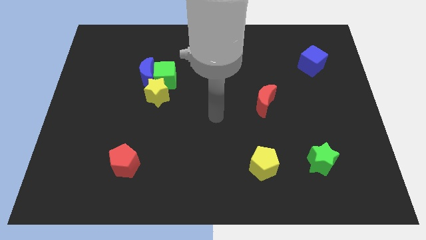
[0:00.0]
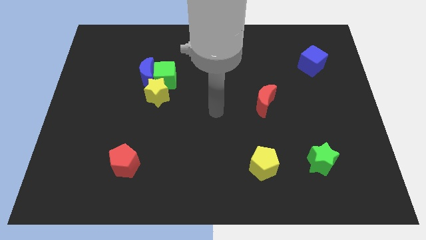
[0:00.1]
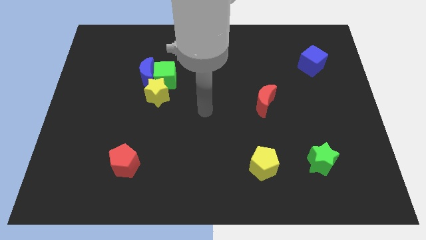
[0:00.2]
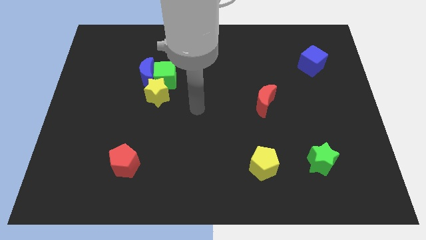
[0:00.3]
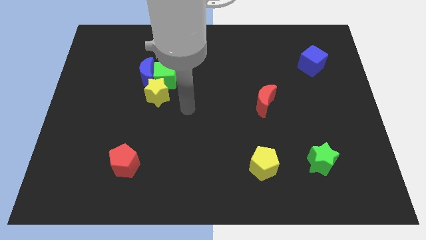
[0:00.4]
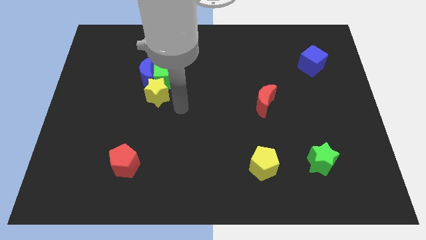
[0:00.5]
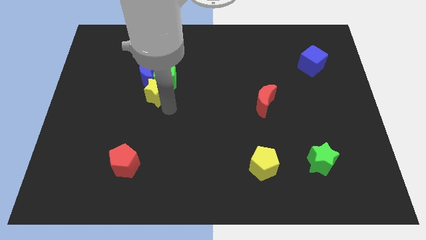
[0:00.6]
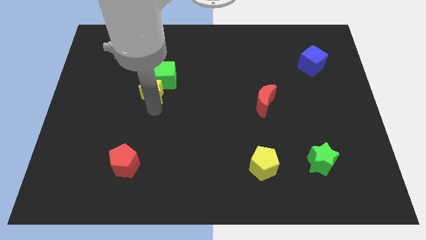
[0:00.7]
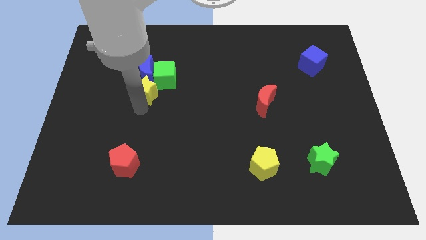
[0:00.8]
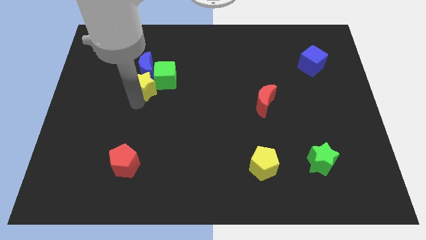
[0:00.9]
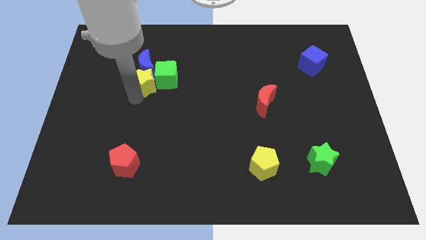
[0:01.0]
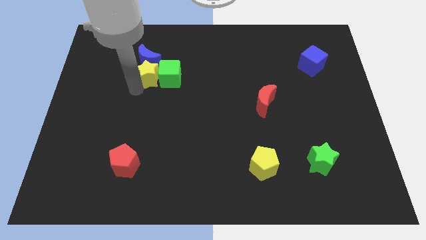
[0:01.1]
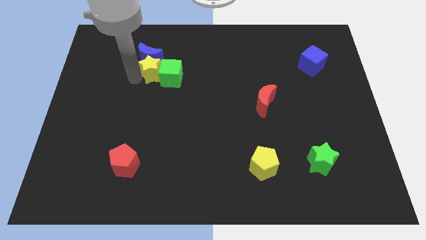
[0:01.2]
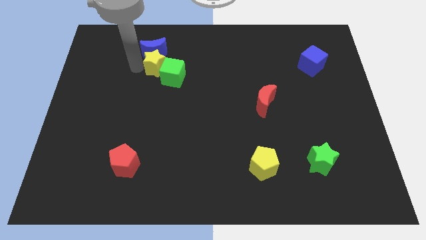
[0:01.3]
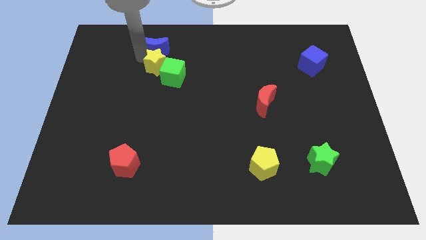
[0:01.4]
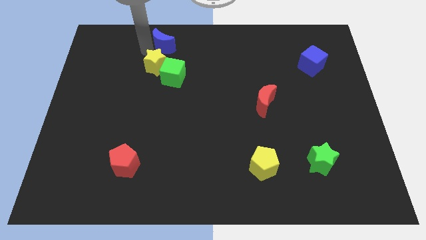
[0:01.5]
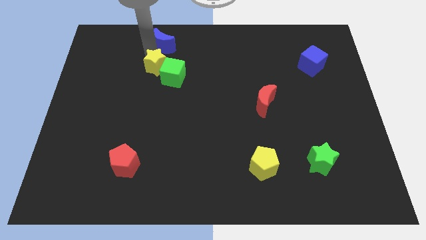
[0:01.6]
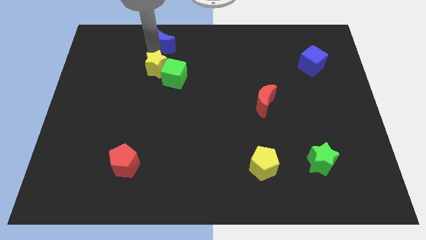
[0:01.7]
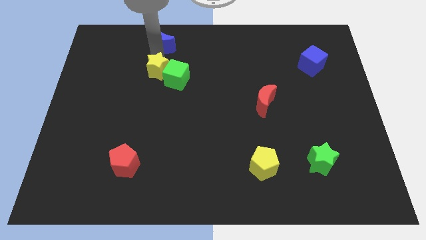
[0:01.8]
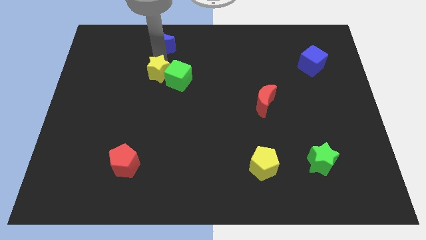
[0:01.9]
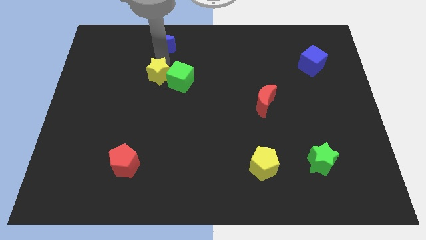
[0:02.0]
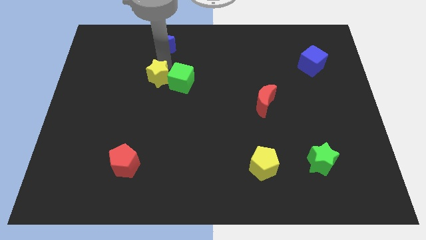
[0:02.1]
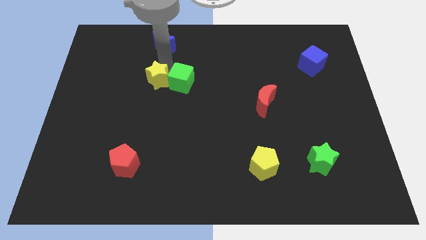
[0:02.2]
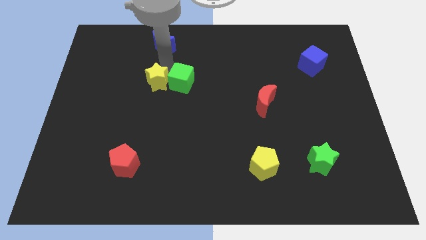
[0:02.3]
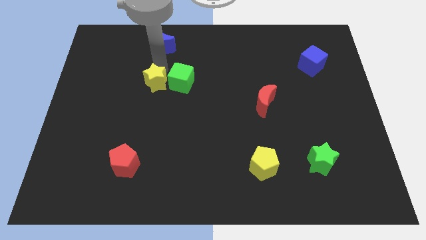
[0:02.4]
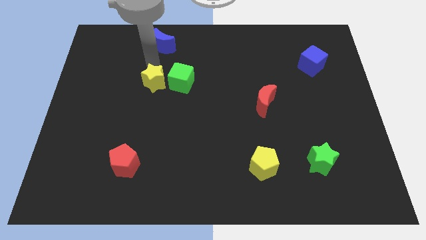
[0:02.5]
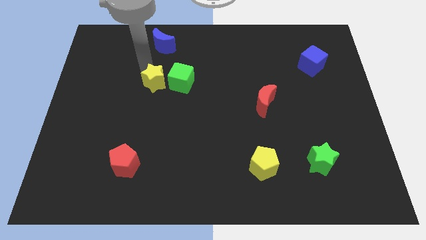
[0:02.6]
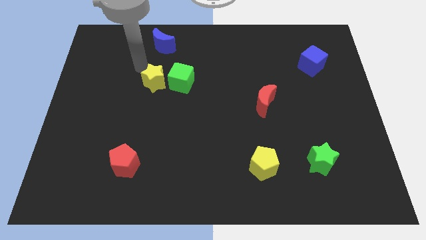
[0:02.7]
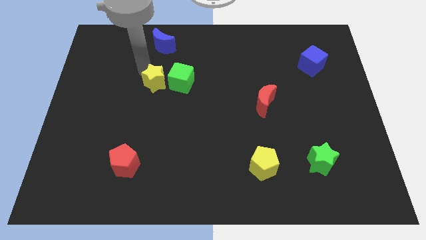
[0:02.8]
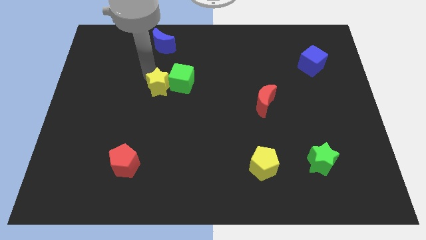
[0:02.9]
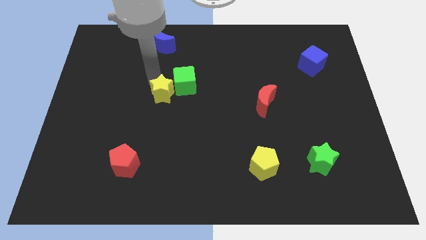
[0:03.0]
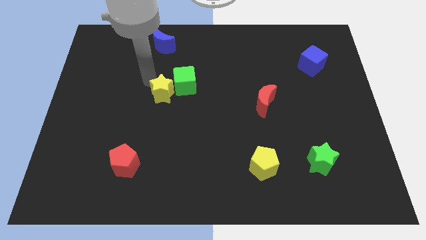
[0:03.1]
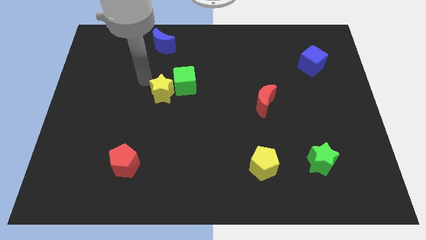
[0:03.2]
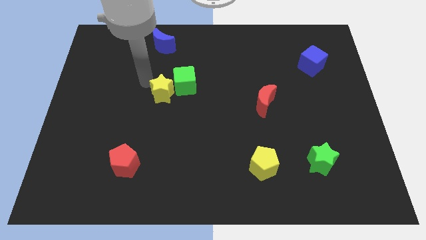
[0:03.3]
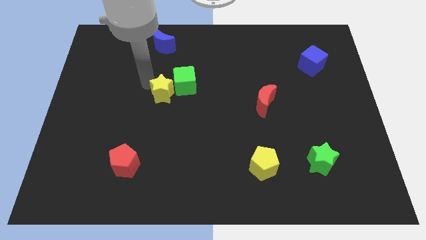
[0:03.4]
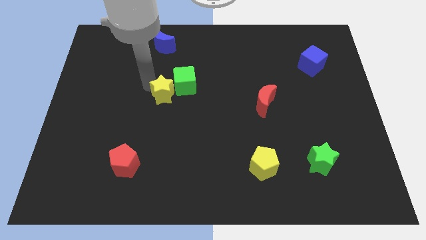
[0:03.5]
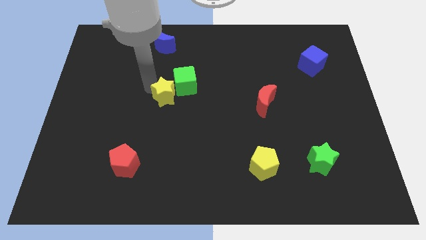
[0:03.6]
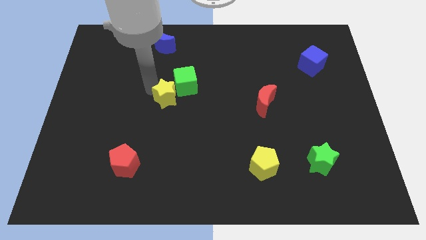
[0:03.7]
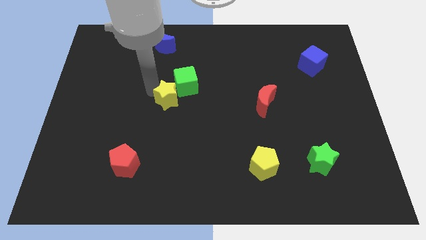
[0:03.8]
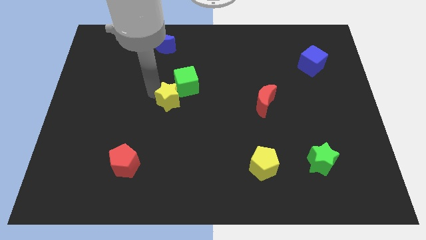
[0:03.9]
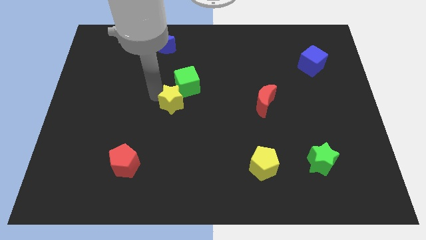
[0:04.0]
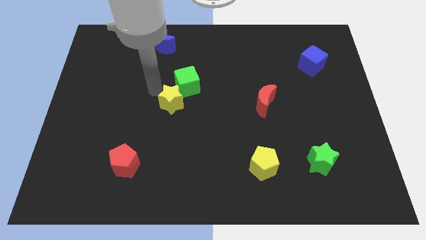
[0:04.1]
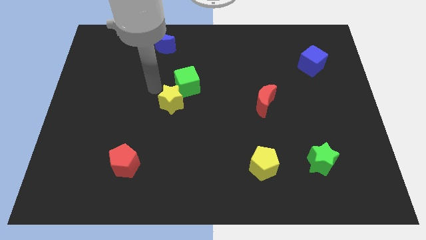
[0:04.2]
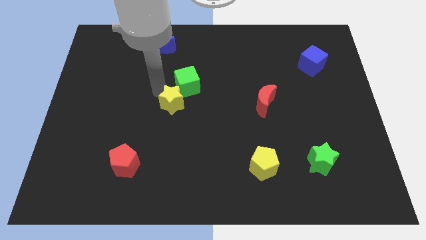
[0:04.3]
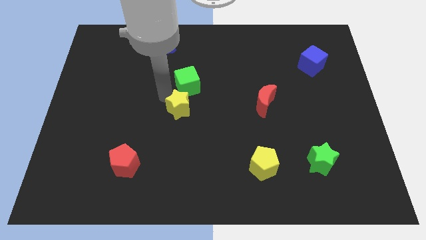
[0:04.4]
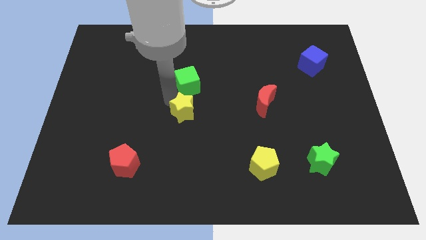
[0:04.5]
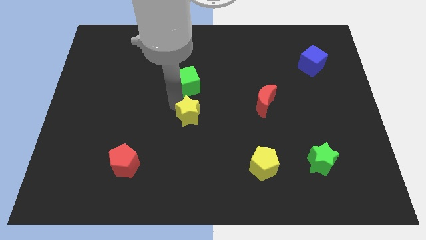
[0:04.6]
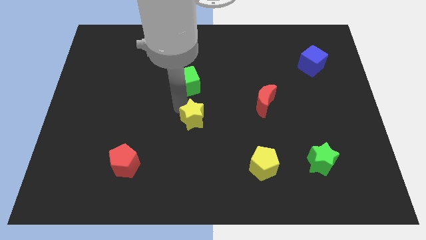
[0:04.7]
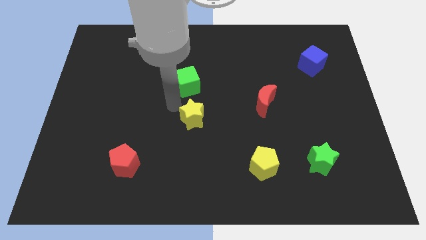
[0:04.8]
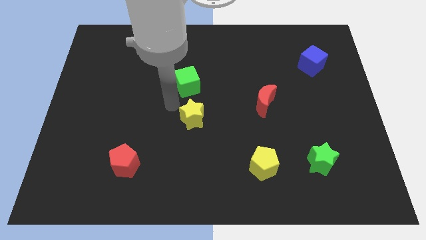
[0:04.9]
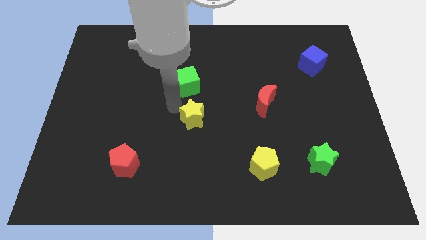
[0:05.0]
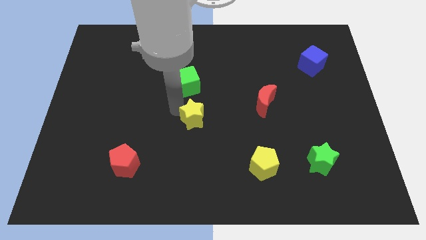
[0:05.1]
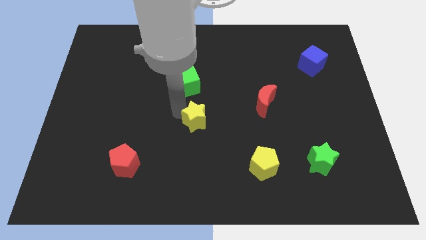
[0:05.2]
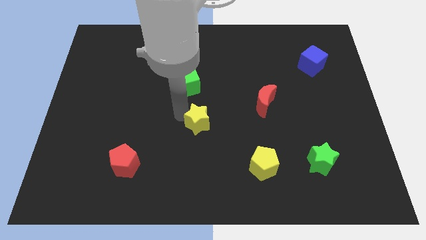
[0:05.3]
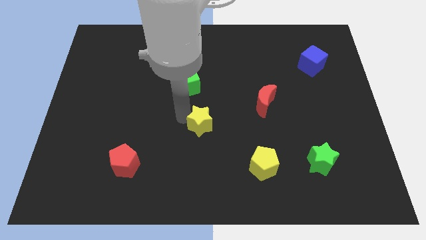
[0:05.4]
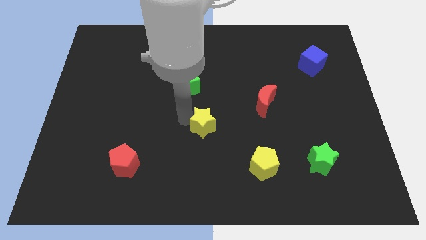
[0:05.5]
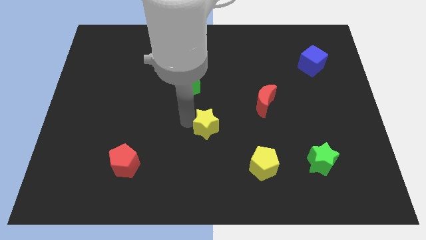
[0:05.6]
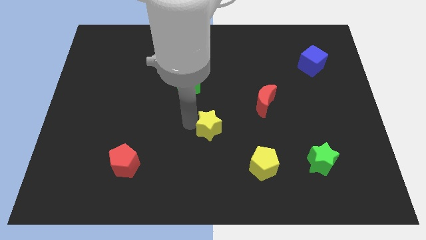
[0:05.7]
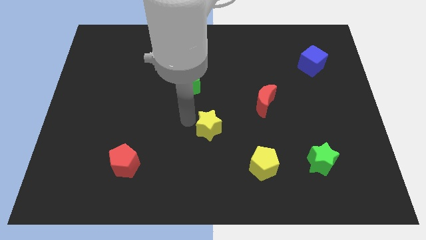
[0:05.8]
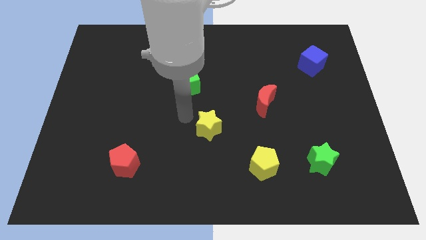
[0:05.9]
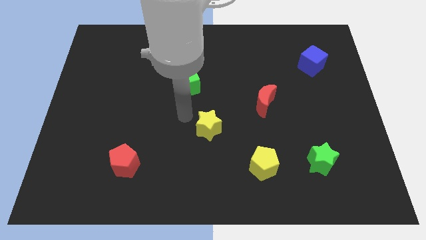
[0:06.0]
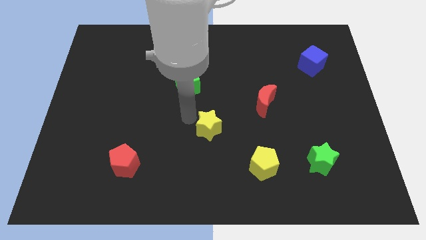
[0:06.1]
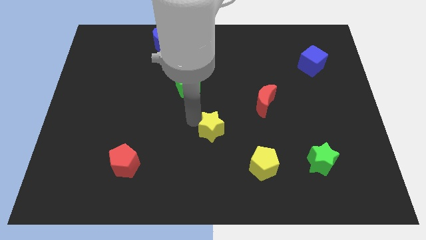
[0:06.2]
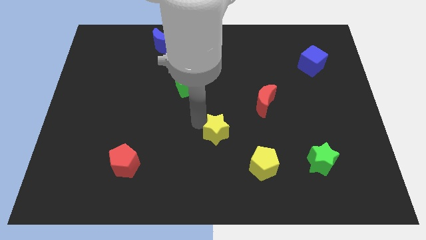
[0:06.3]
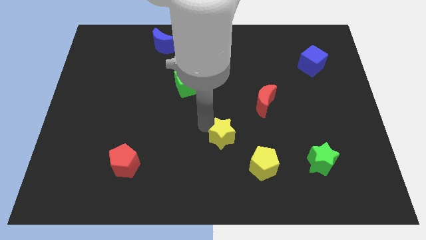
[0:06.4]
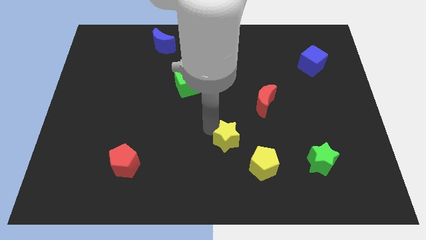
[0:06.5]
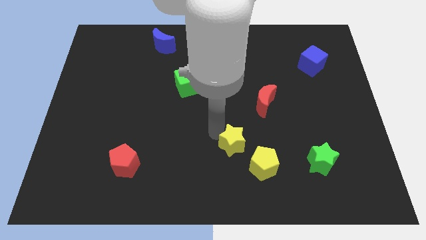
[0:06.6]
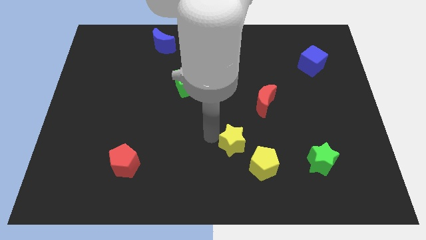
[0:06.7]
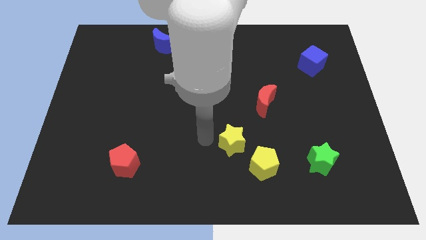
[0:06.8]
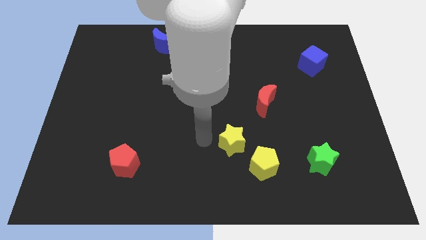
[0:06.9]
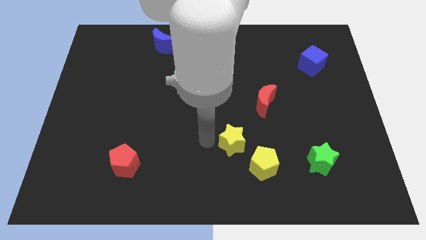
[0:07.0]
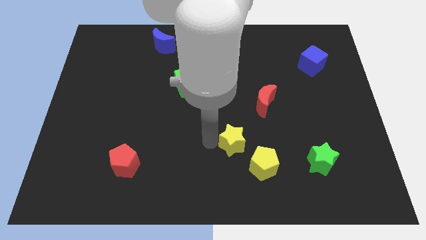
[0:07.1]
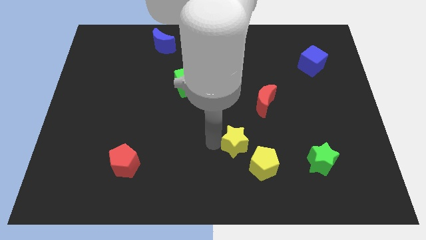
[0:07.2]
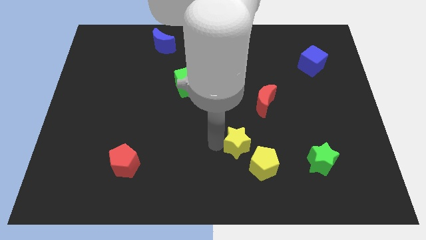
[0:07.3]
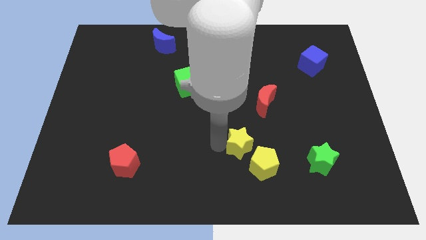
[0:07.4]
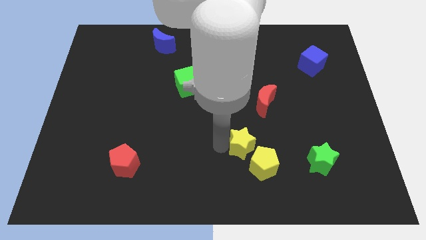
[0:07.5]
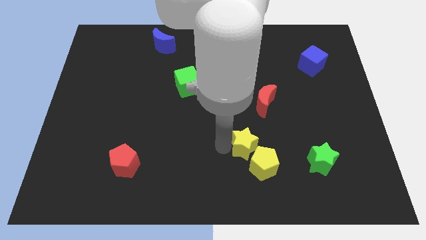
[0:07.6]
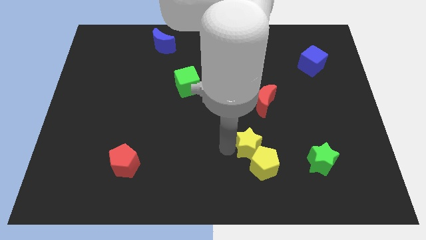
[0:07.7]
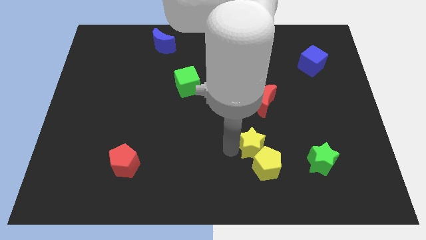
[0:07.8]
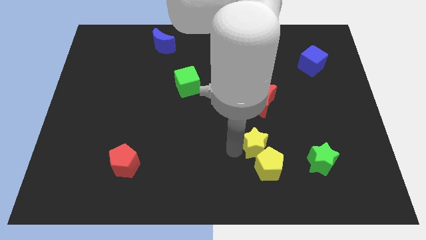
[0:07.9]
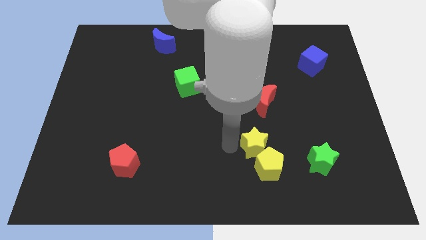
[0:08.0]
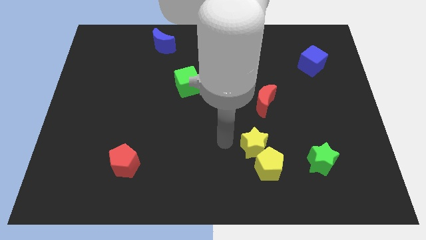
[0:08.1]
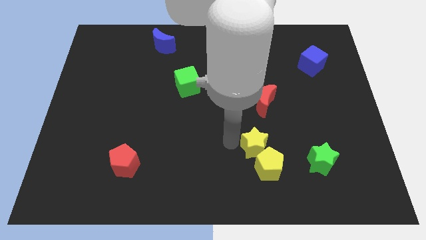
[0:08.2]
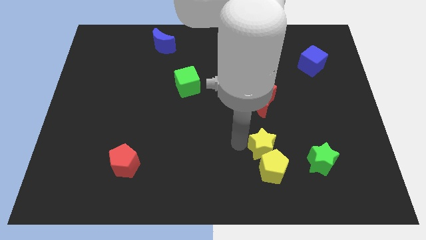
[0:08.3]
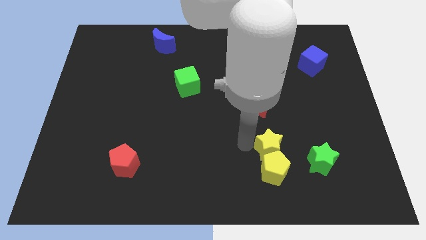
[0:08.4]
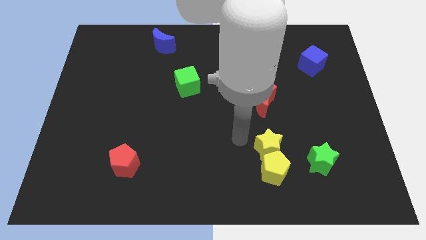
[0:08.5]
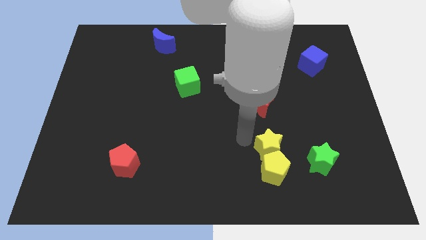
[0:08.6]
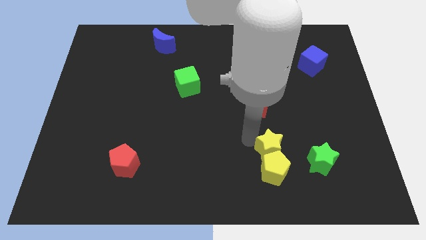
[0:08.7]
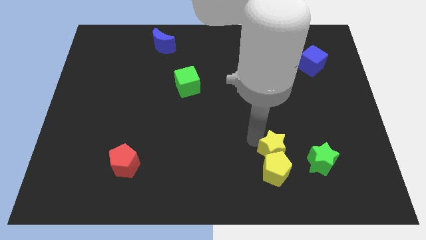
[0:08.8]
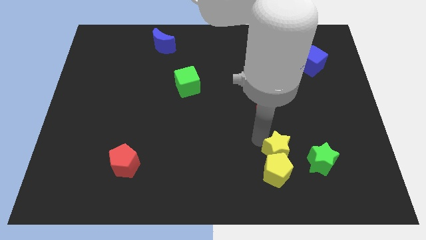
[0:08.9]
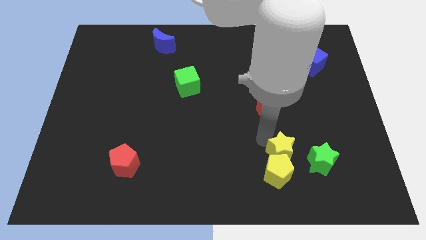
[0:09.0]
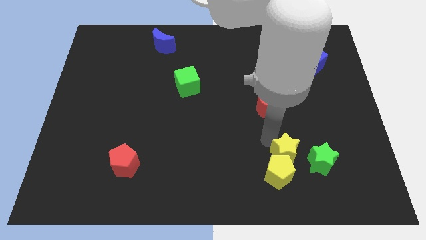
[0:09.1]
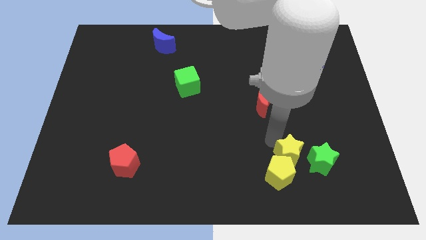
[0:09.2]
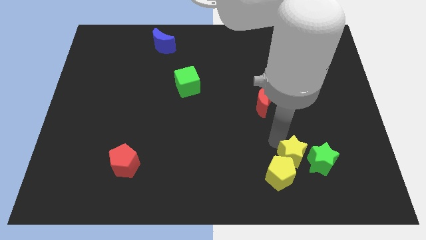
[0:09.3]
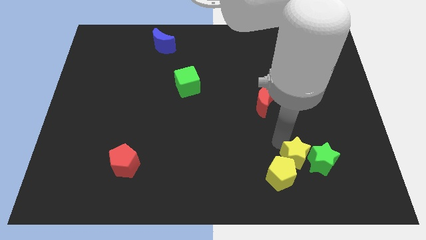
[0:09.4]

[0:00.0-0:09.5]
slide the yellow star next to the green star
